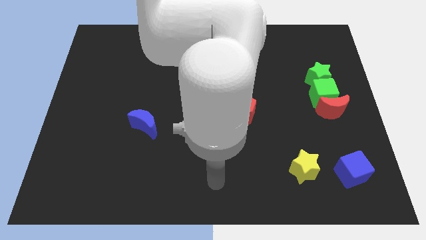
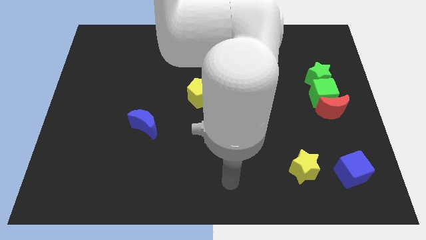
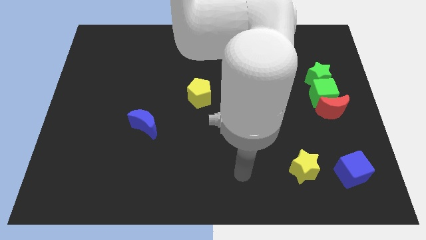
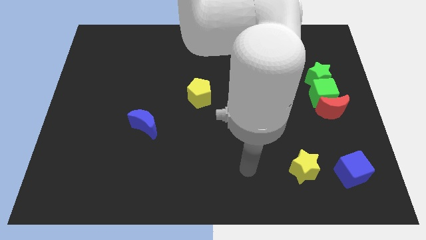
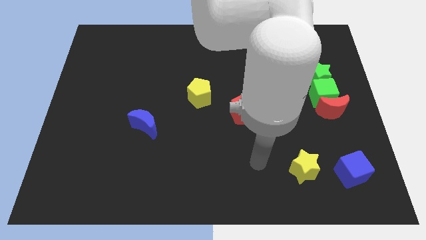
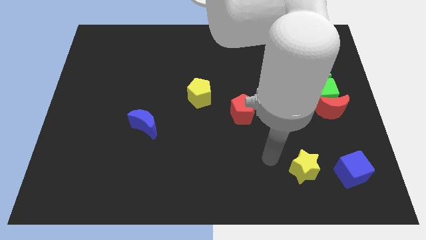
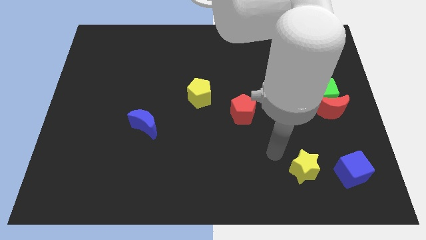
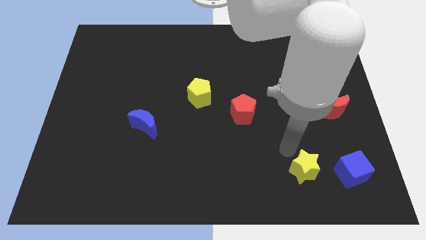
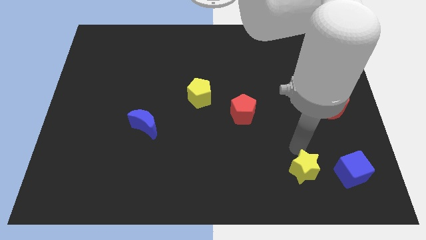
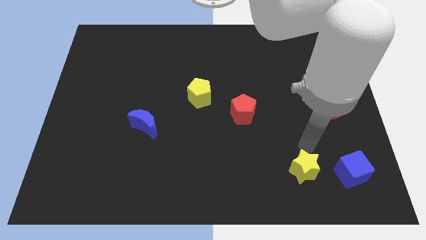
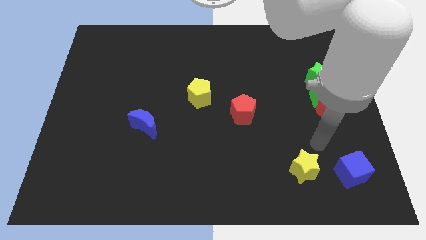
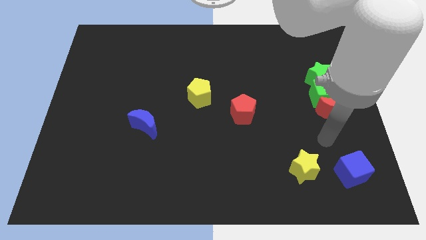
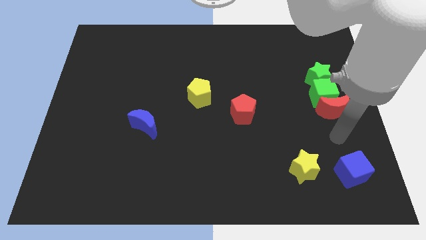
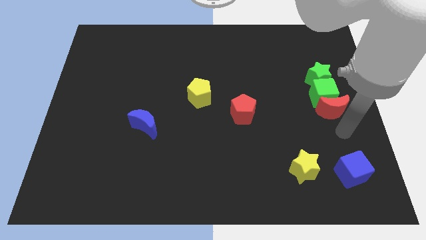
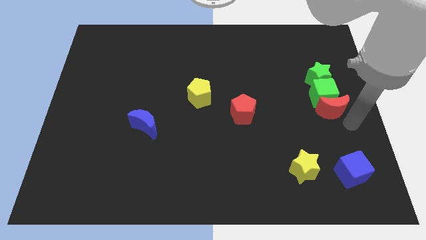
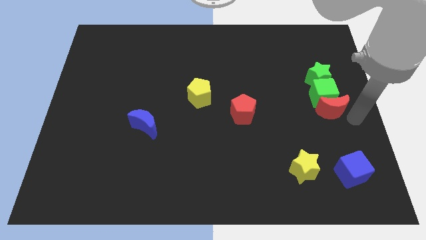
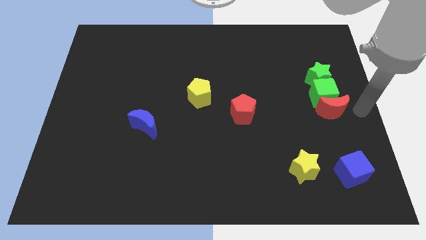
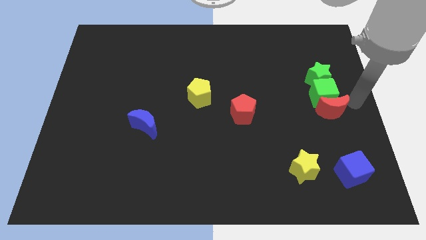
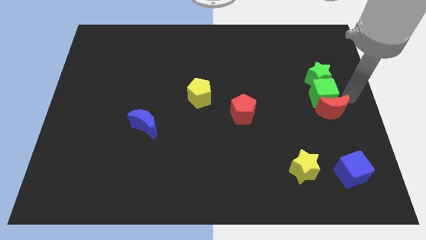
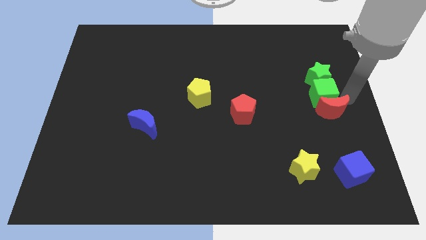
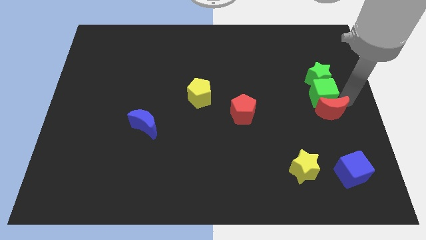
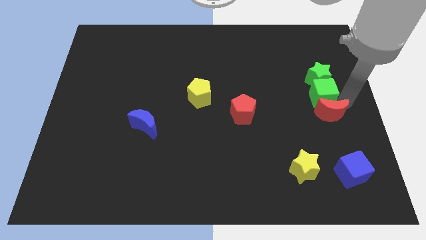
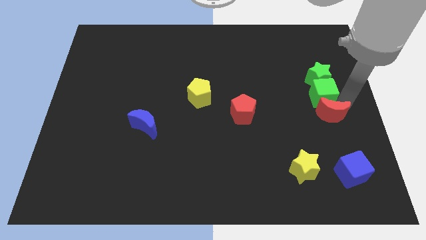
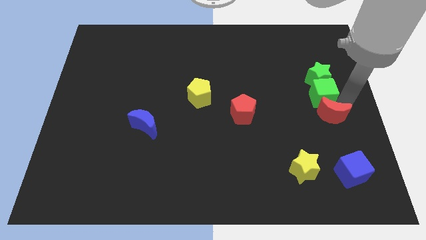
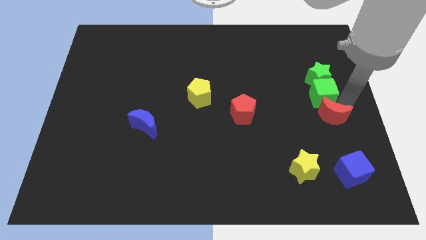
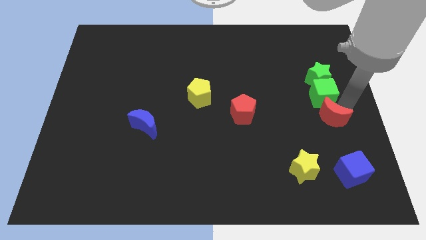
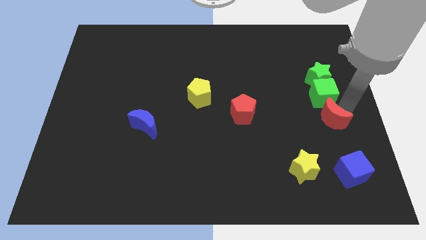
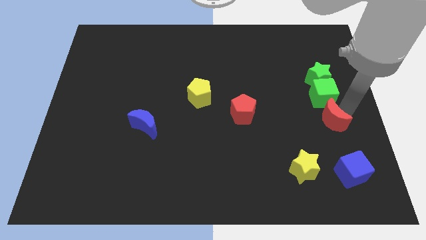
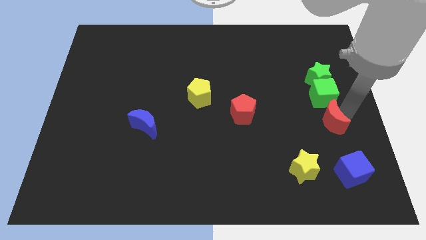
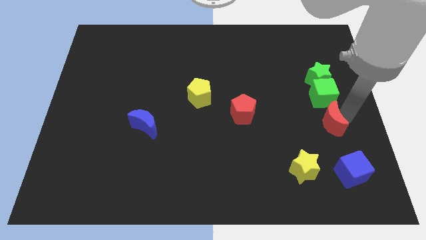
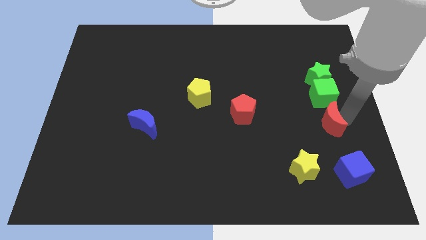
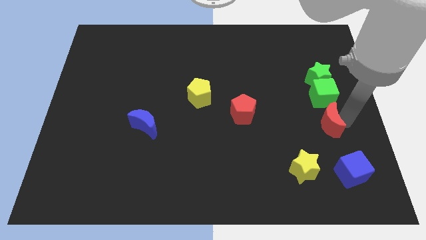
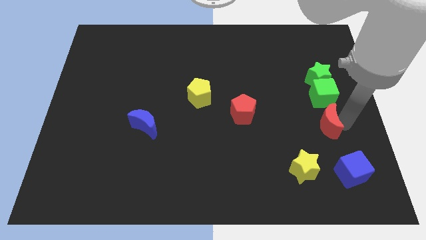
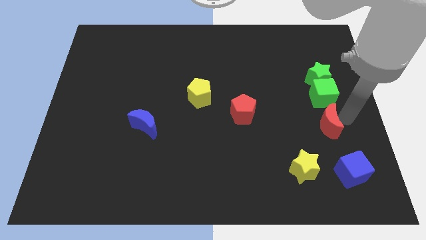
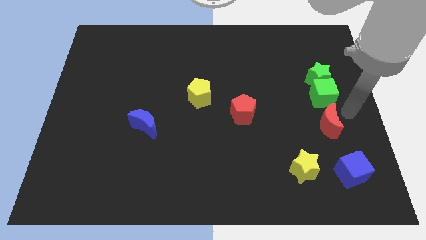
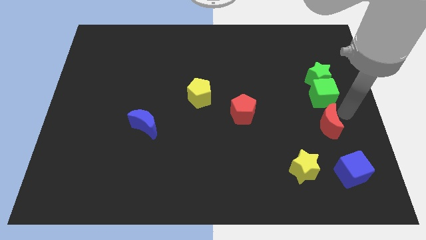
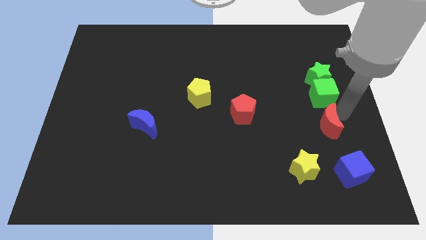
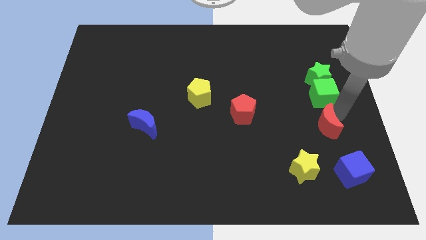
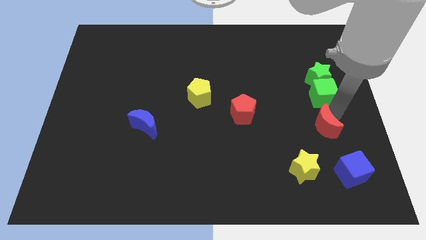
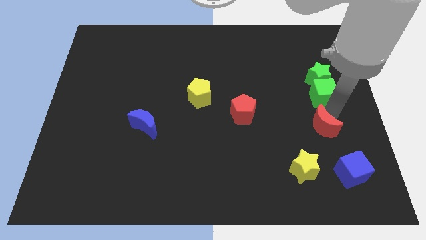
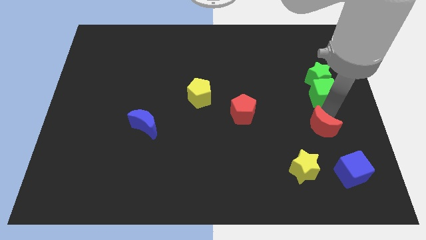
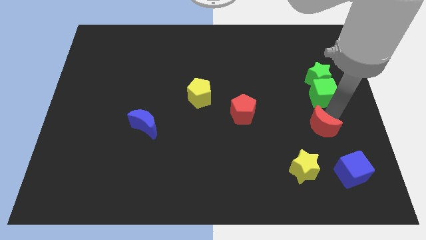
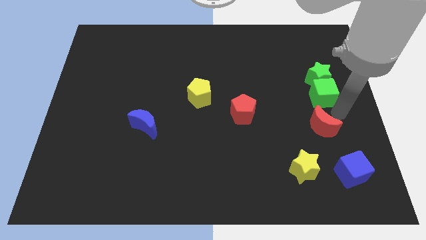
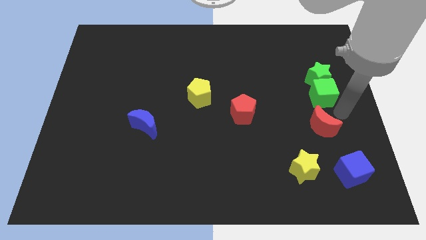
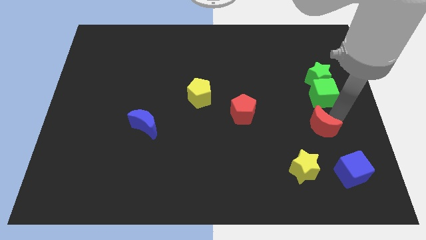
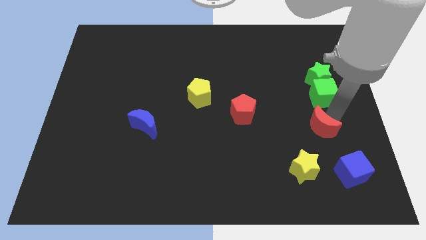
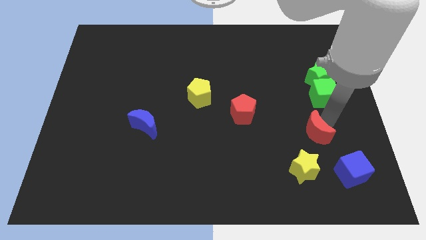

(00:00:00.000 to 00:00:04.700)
push the red moon diagonally downwards and left somewhat

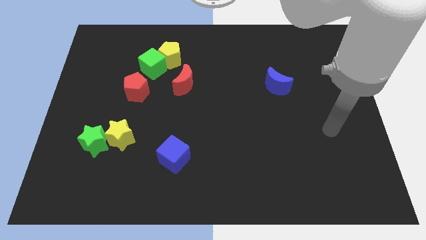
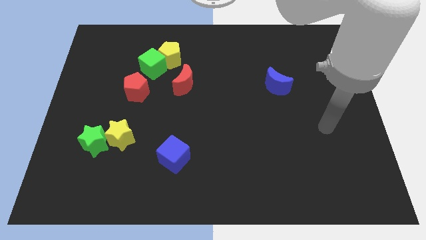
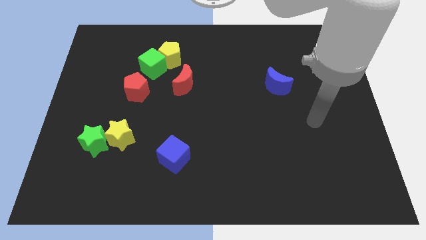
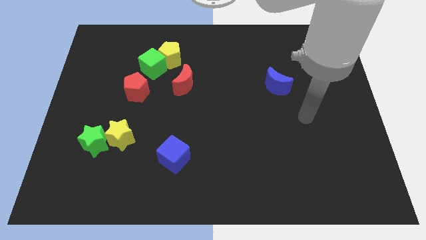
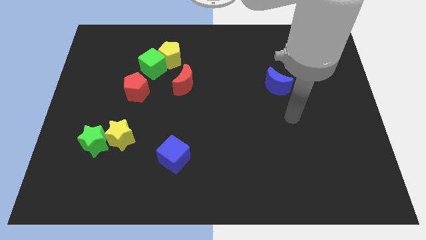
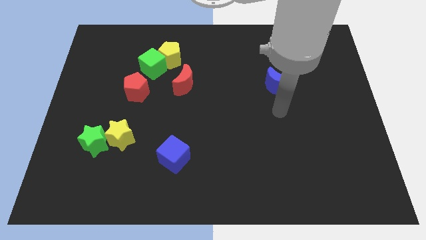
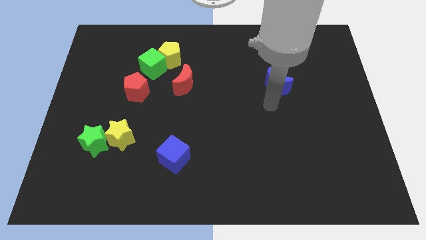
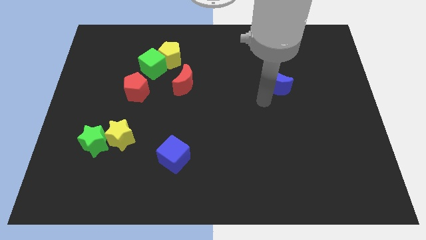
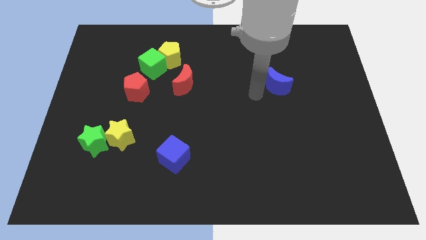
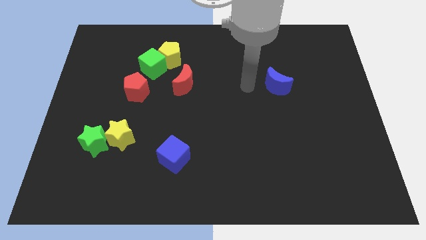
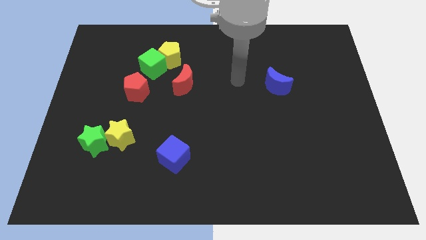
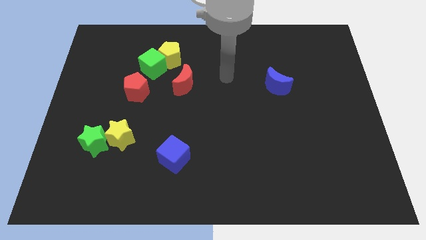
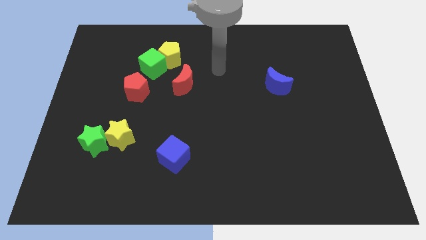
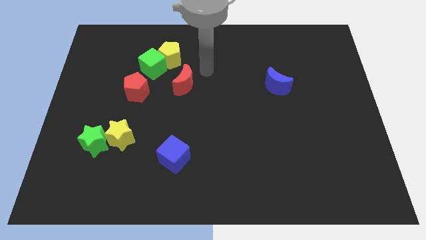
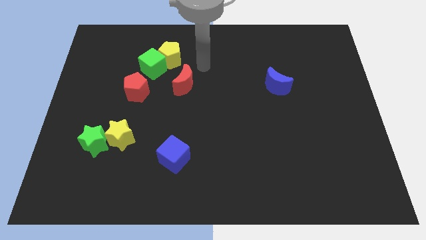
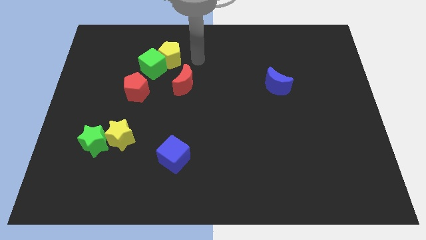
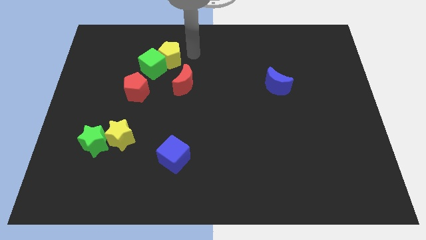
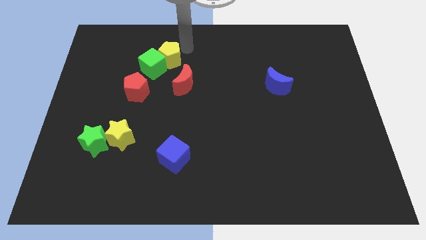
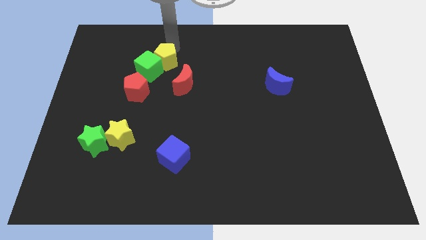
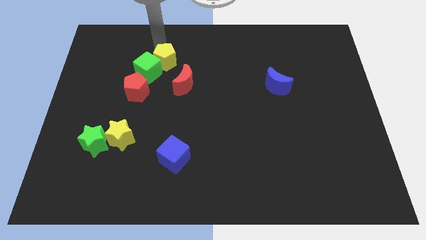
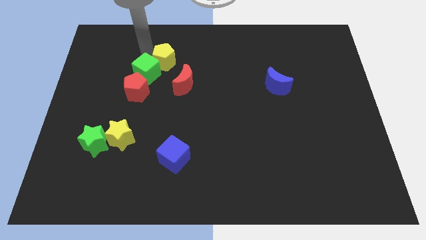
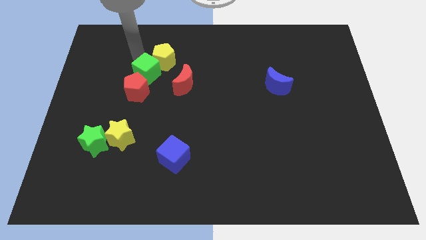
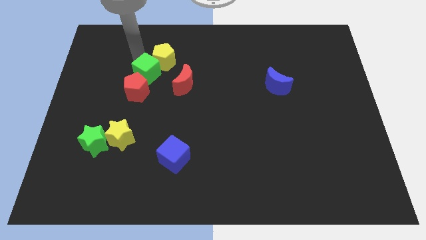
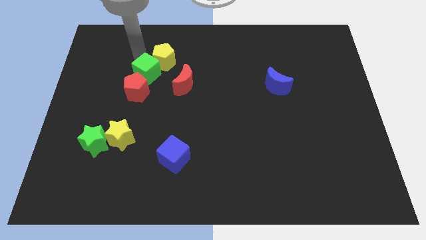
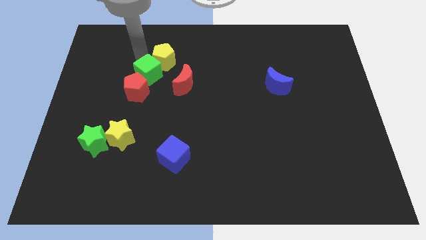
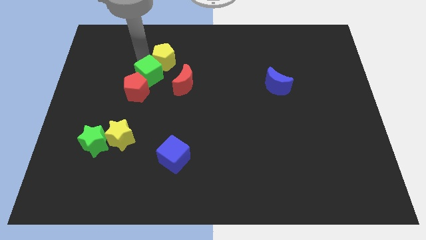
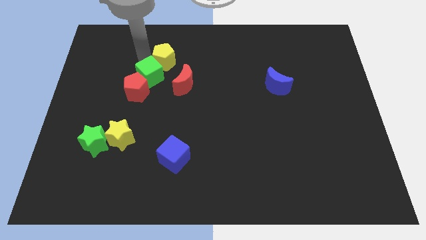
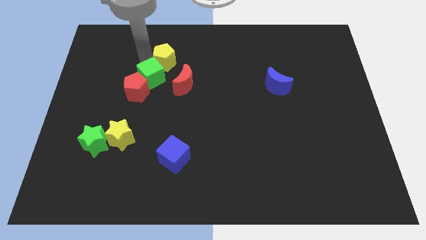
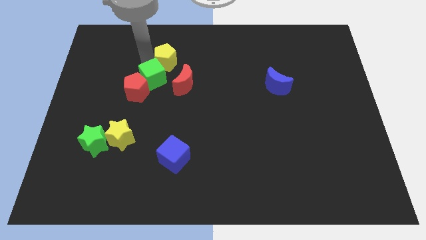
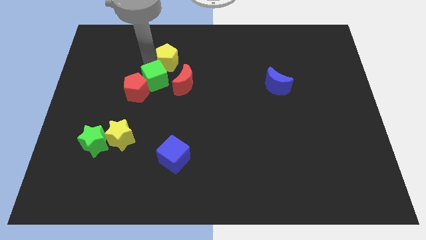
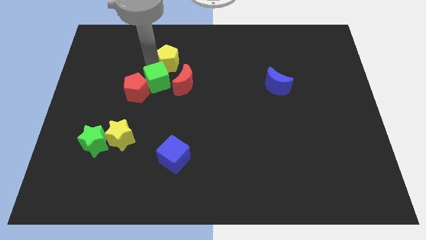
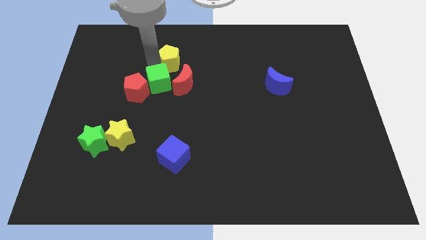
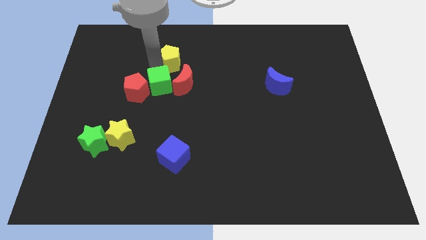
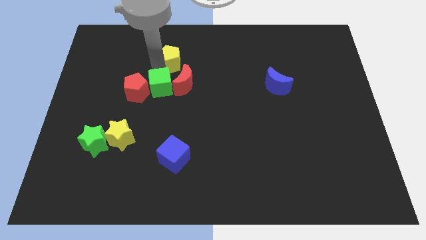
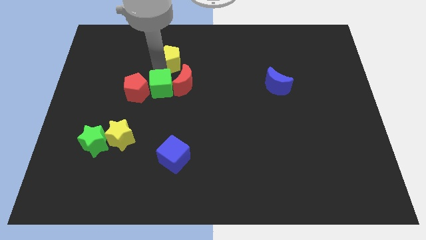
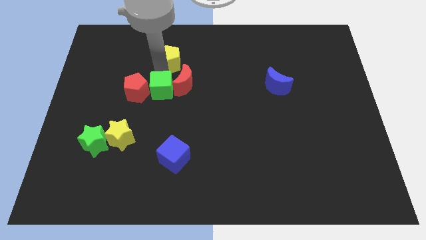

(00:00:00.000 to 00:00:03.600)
push the green cube somewhat downwards
